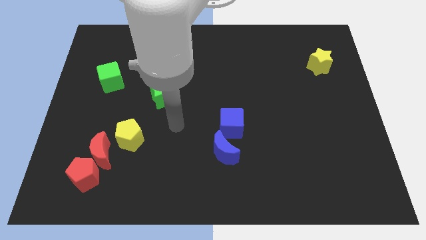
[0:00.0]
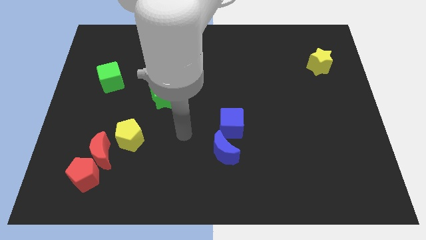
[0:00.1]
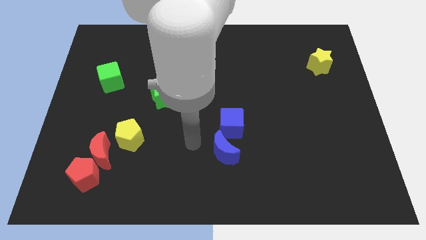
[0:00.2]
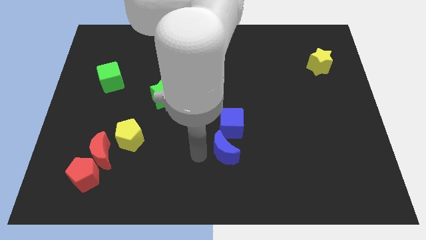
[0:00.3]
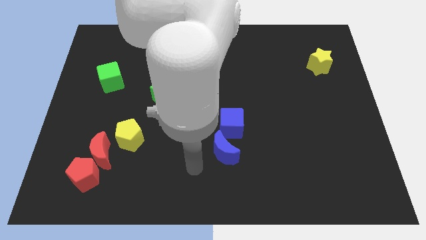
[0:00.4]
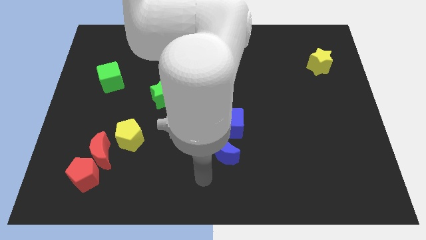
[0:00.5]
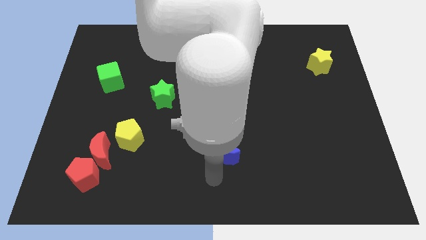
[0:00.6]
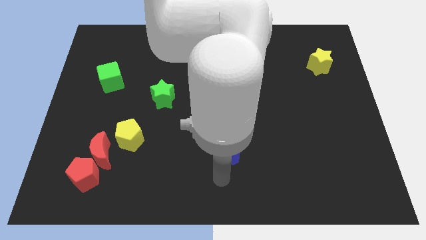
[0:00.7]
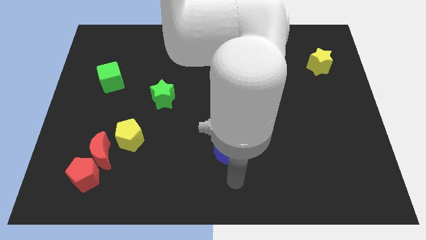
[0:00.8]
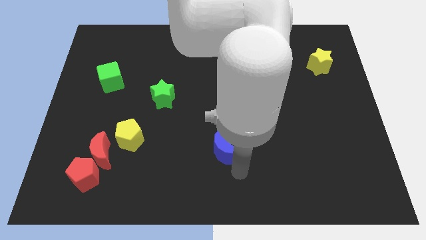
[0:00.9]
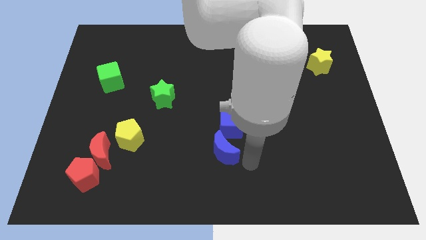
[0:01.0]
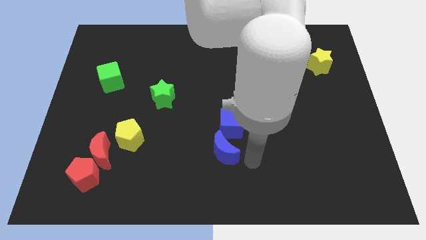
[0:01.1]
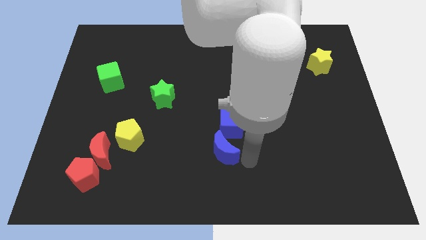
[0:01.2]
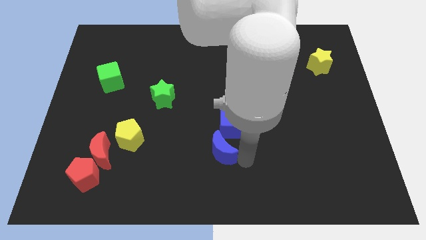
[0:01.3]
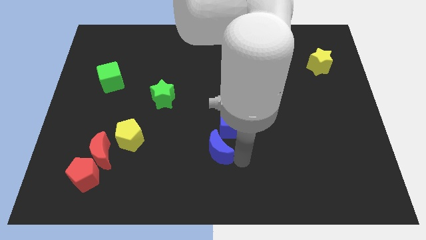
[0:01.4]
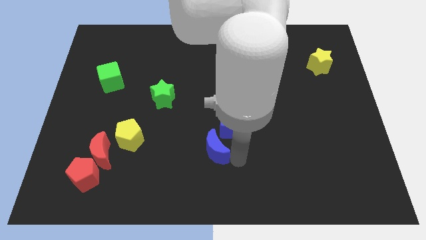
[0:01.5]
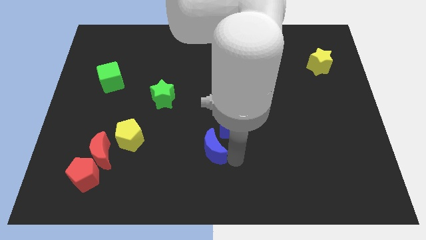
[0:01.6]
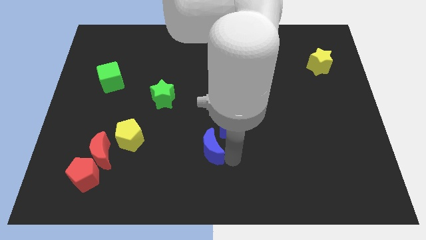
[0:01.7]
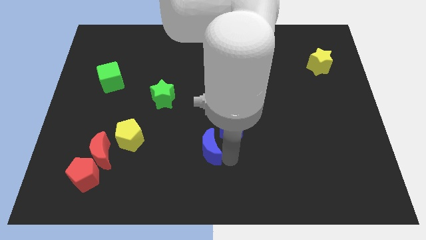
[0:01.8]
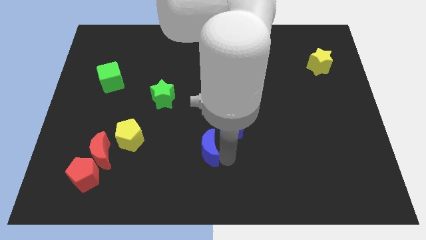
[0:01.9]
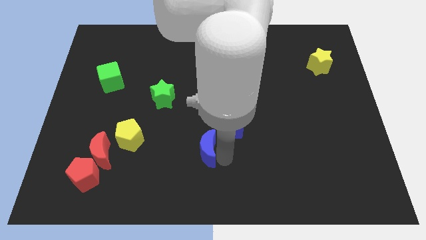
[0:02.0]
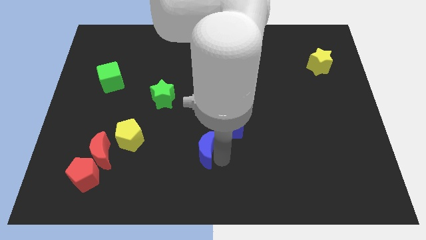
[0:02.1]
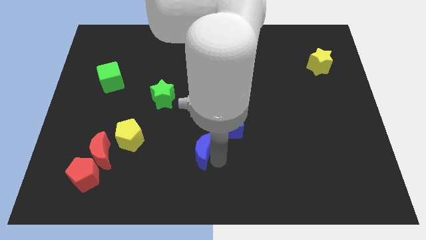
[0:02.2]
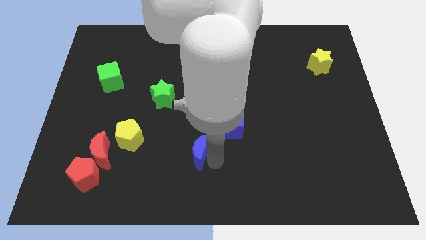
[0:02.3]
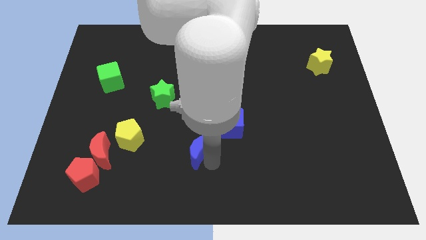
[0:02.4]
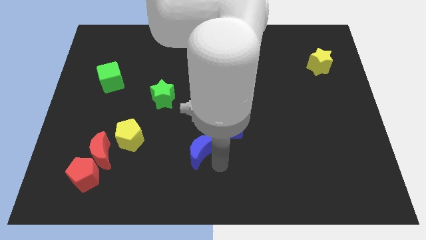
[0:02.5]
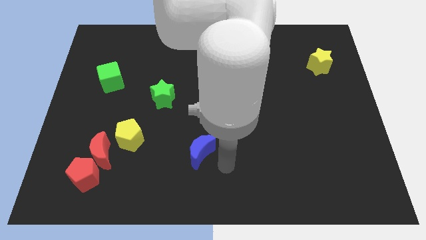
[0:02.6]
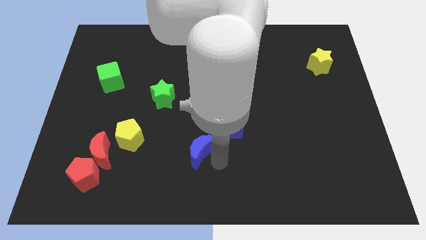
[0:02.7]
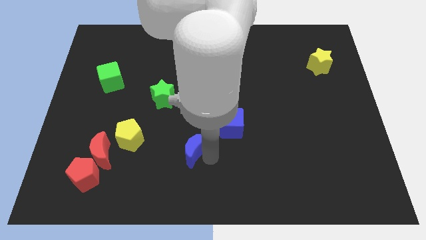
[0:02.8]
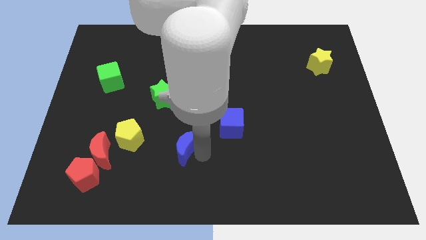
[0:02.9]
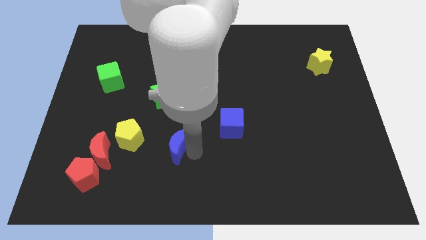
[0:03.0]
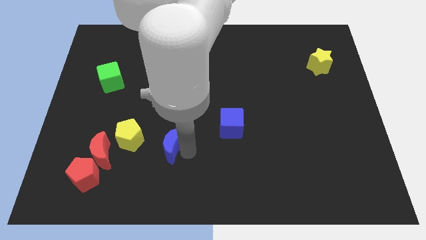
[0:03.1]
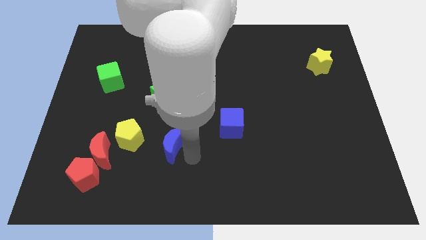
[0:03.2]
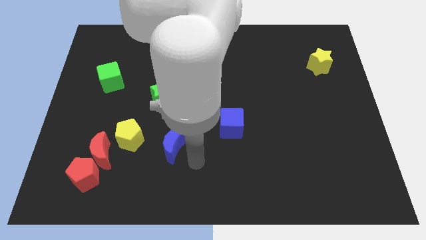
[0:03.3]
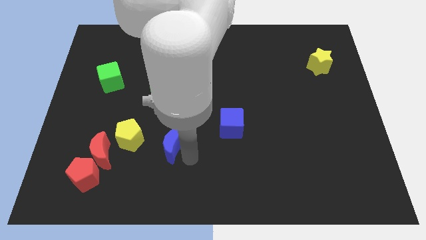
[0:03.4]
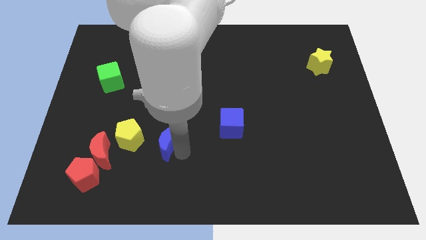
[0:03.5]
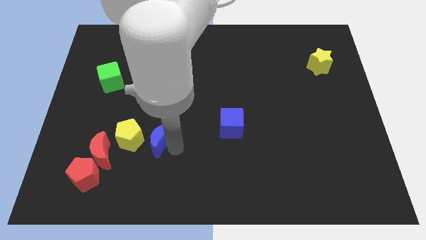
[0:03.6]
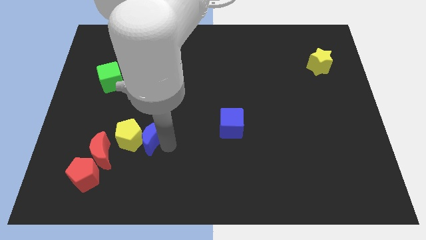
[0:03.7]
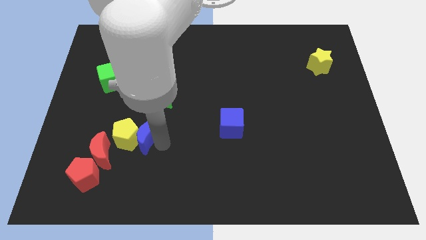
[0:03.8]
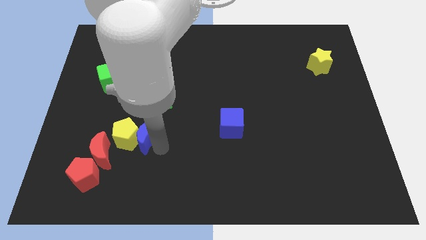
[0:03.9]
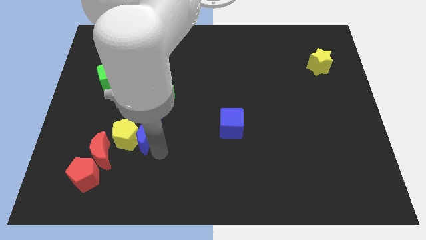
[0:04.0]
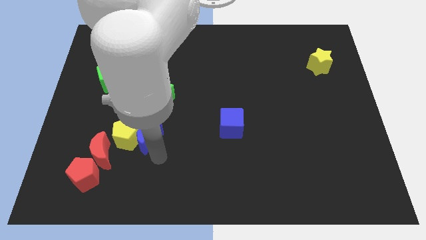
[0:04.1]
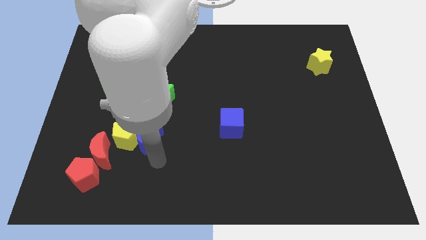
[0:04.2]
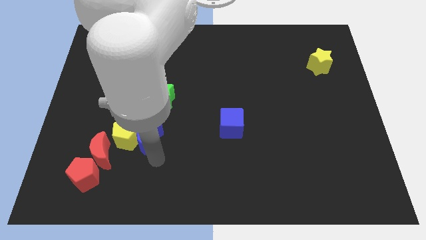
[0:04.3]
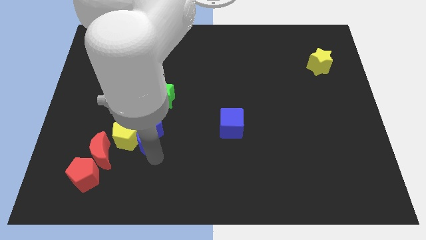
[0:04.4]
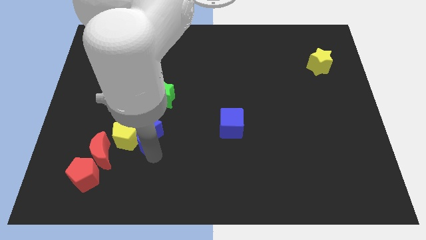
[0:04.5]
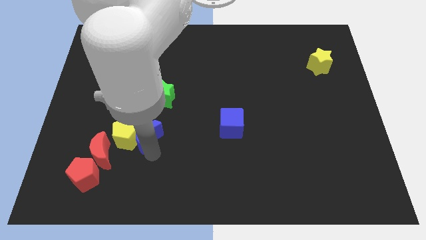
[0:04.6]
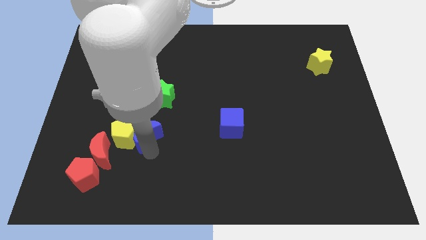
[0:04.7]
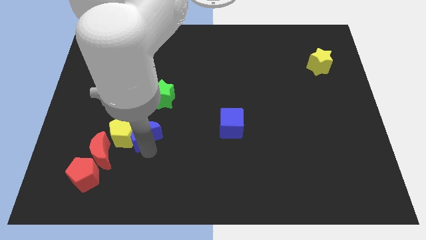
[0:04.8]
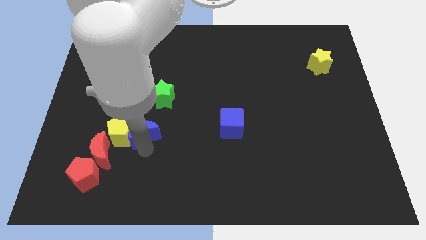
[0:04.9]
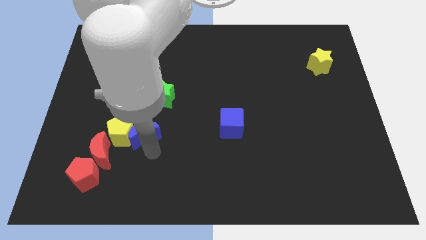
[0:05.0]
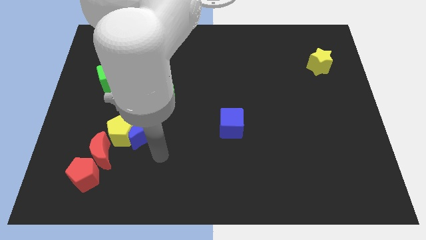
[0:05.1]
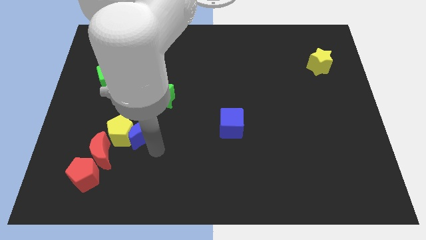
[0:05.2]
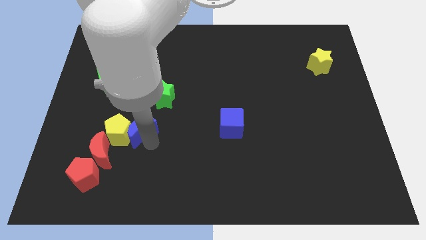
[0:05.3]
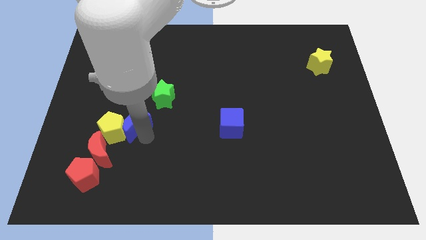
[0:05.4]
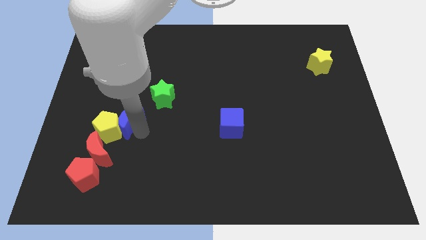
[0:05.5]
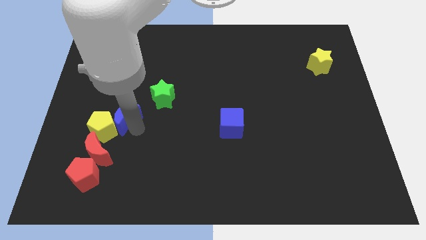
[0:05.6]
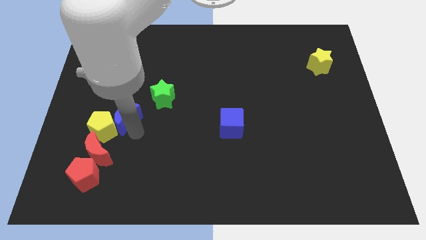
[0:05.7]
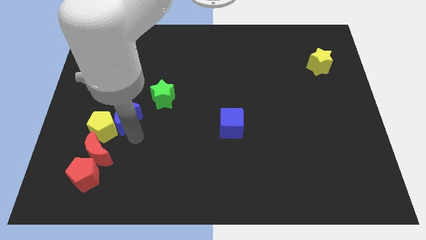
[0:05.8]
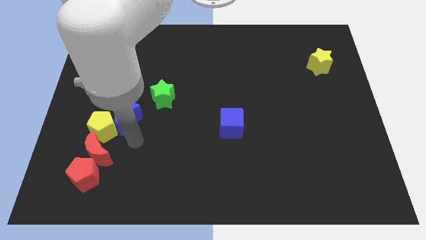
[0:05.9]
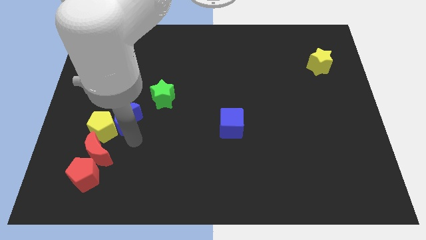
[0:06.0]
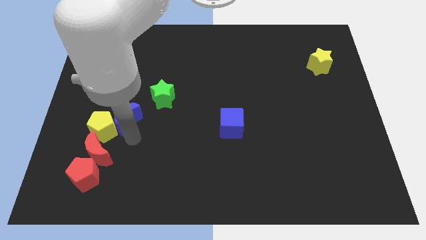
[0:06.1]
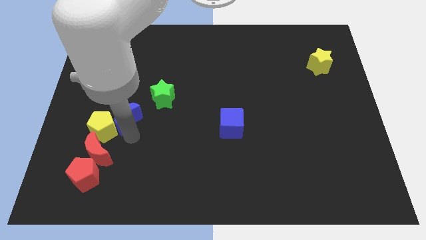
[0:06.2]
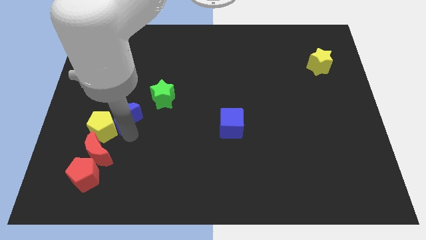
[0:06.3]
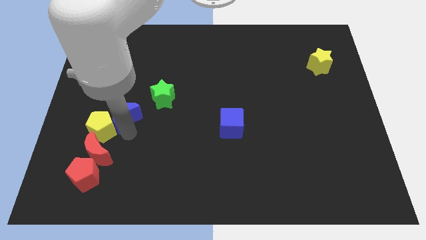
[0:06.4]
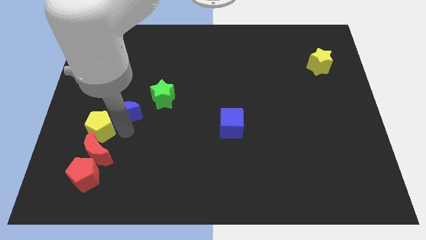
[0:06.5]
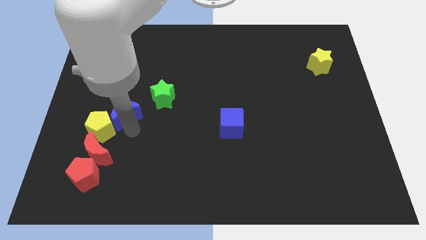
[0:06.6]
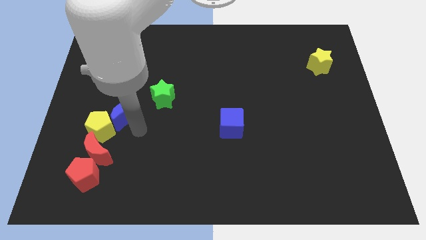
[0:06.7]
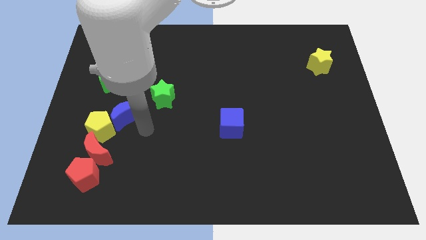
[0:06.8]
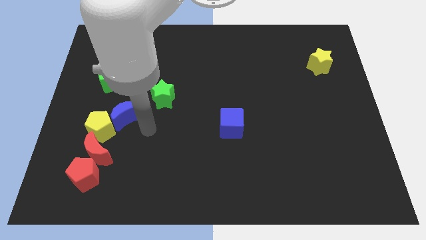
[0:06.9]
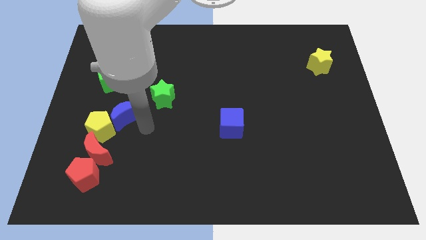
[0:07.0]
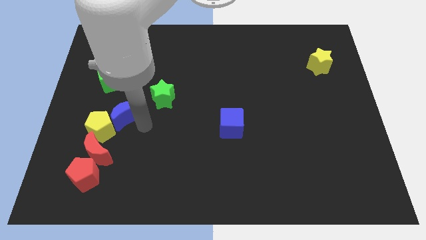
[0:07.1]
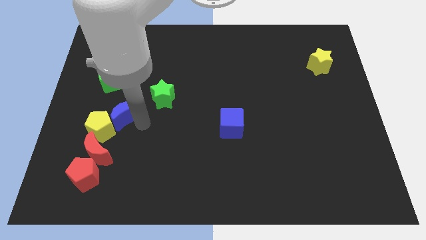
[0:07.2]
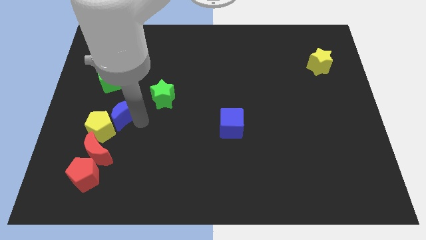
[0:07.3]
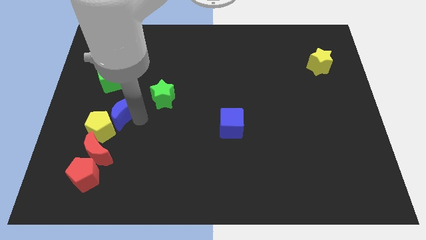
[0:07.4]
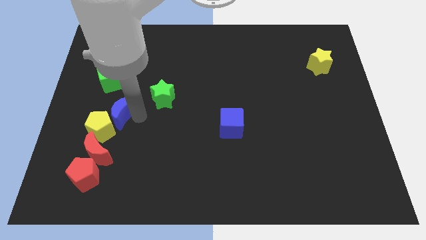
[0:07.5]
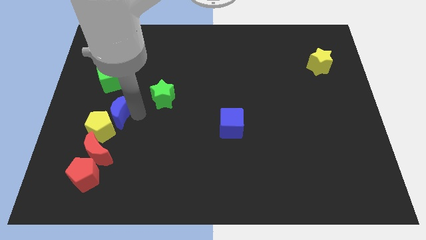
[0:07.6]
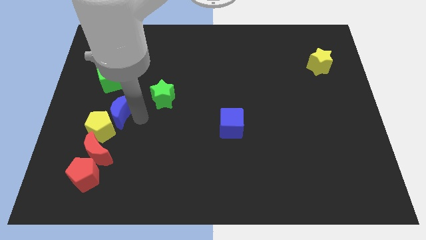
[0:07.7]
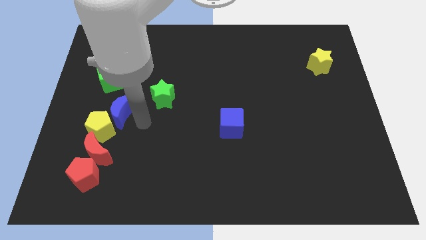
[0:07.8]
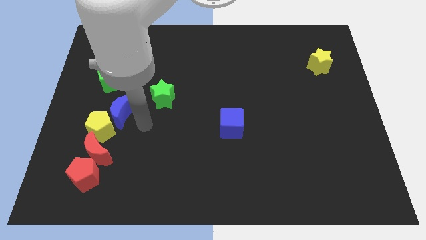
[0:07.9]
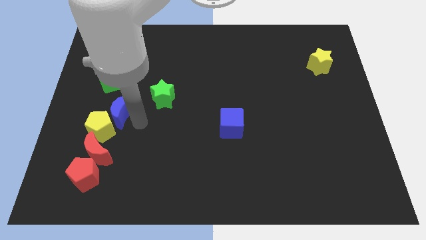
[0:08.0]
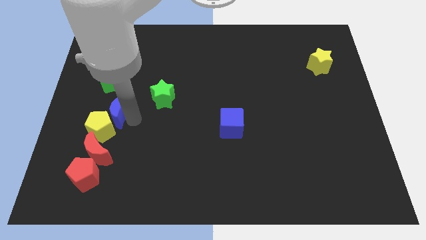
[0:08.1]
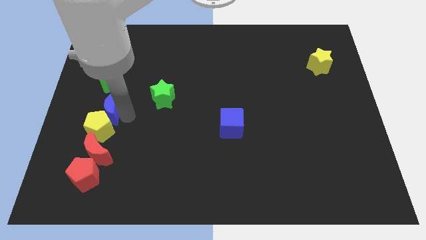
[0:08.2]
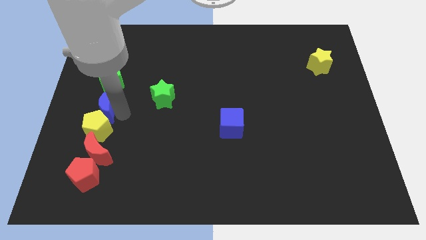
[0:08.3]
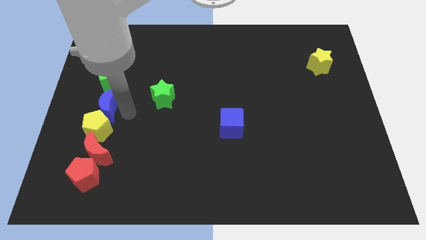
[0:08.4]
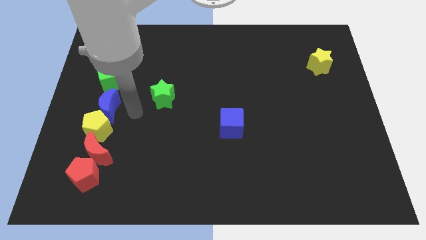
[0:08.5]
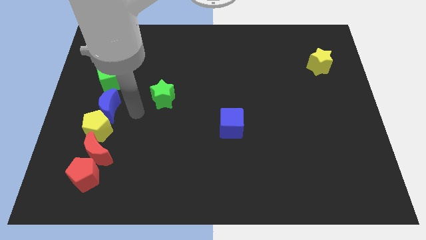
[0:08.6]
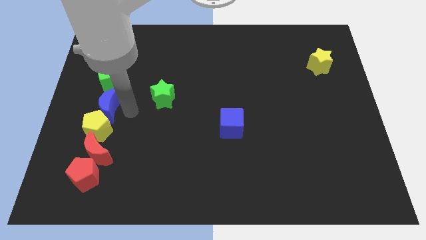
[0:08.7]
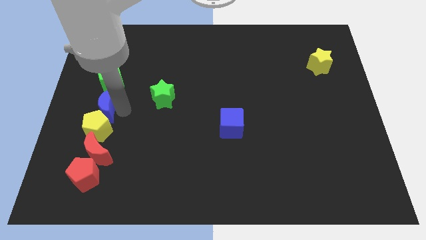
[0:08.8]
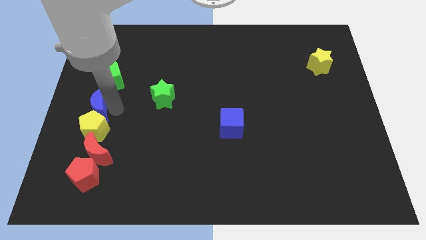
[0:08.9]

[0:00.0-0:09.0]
move the blue moon to the center left
